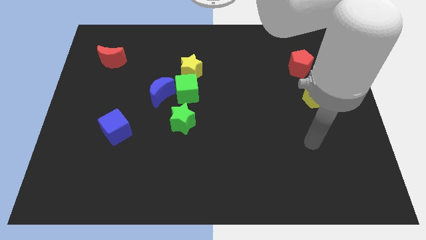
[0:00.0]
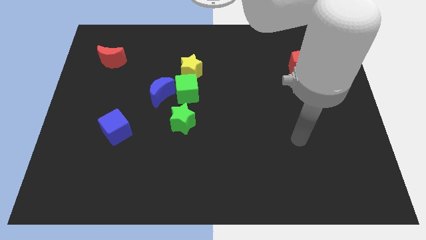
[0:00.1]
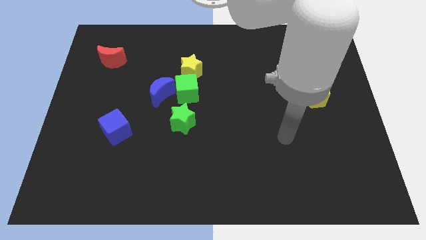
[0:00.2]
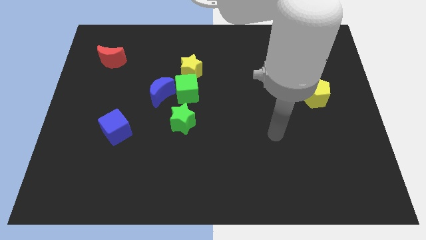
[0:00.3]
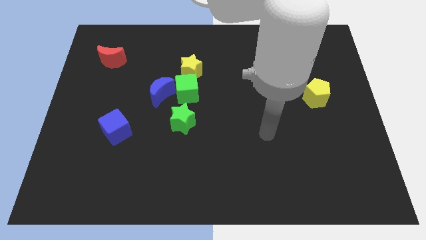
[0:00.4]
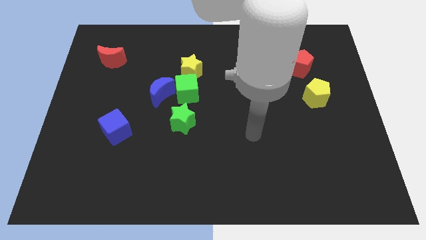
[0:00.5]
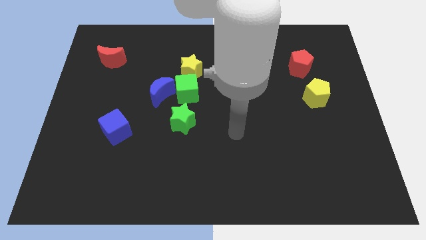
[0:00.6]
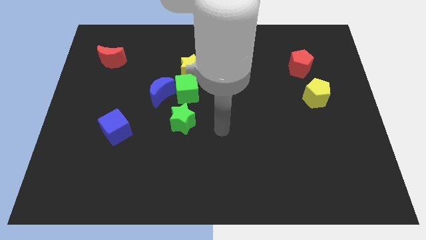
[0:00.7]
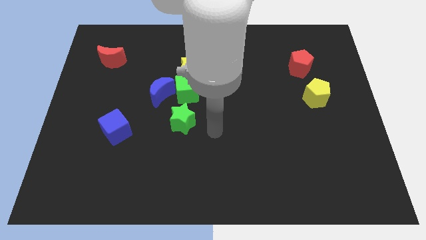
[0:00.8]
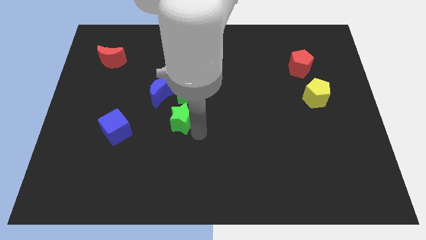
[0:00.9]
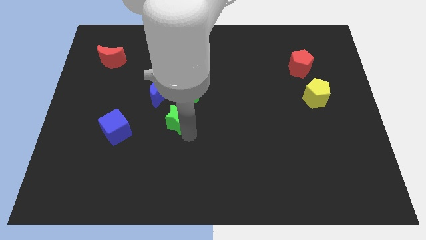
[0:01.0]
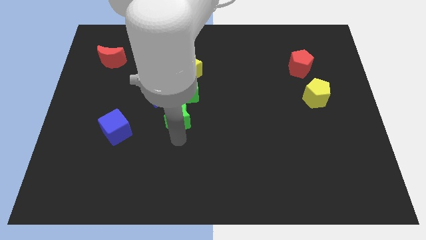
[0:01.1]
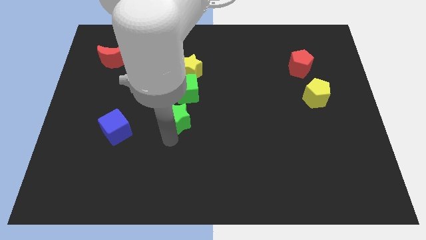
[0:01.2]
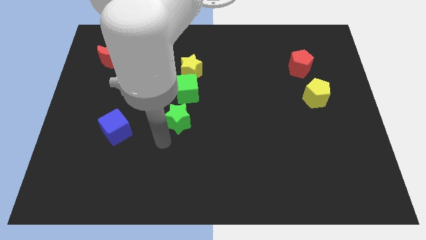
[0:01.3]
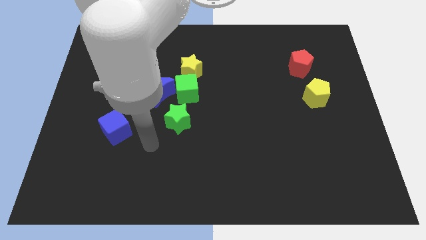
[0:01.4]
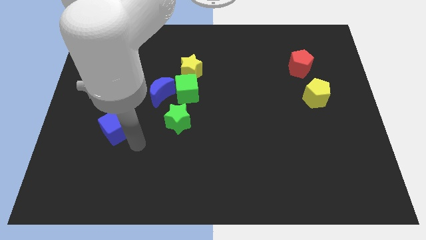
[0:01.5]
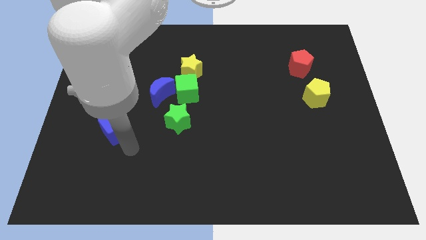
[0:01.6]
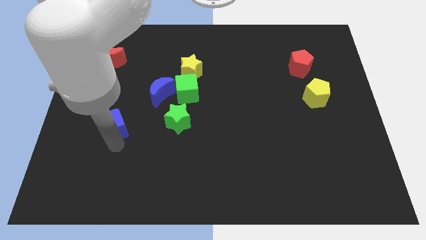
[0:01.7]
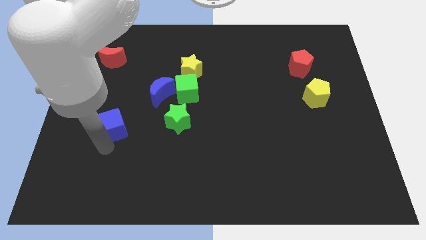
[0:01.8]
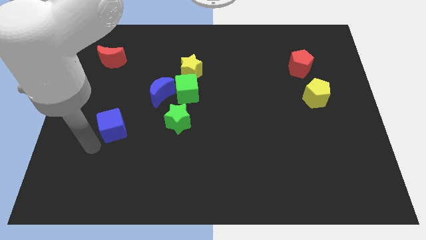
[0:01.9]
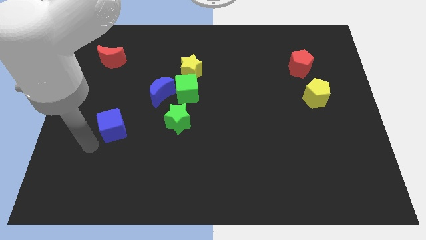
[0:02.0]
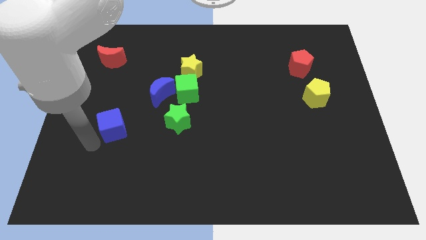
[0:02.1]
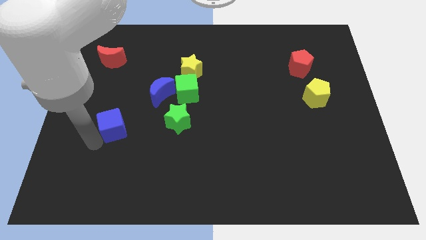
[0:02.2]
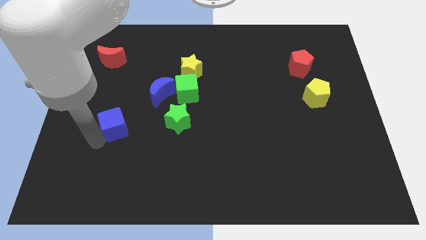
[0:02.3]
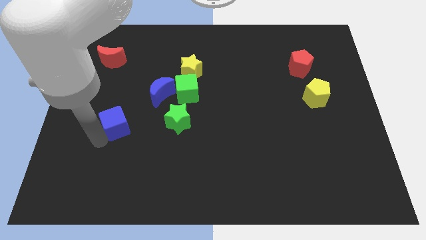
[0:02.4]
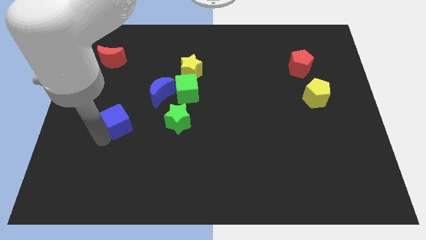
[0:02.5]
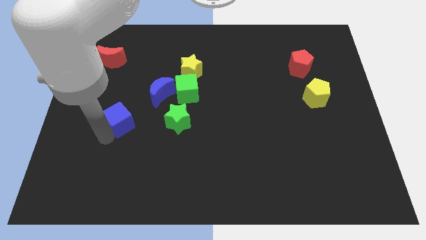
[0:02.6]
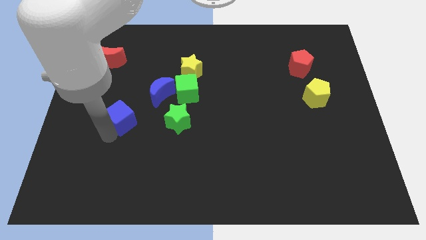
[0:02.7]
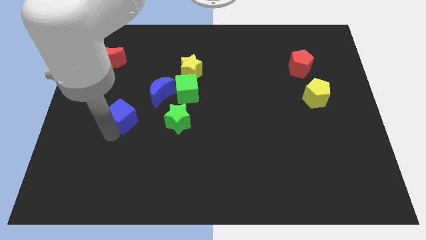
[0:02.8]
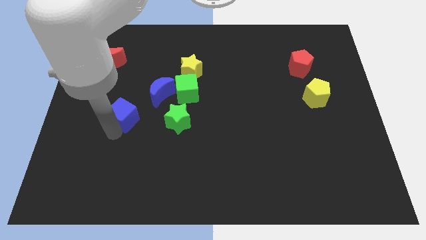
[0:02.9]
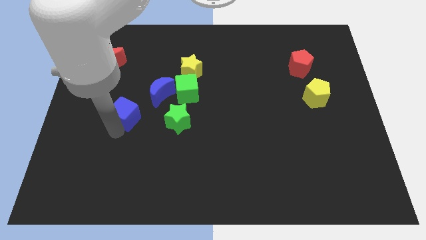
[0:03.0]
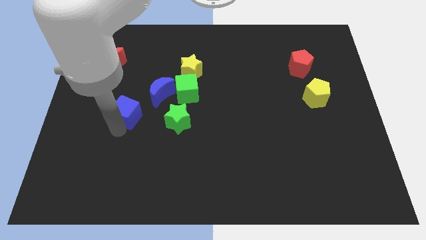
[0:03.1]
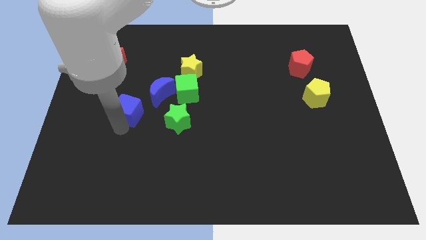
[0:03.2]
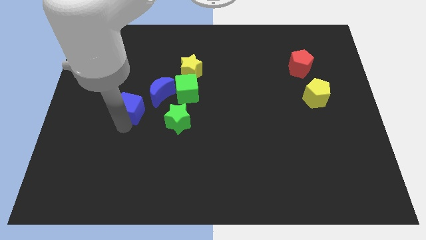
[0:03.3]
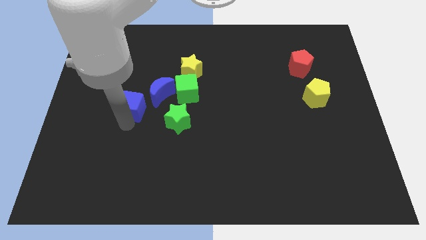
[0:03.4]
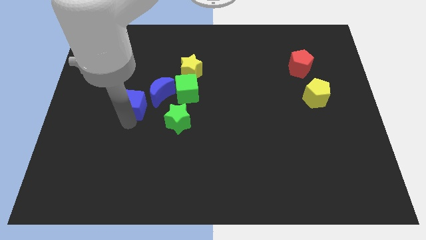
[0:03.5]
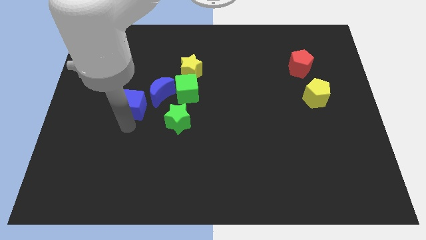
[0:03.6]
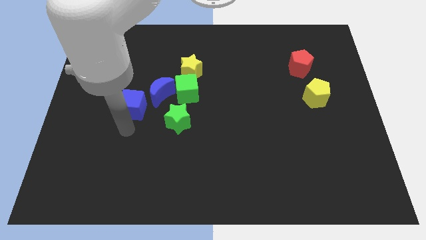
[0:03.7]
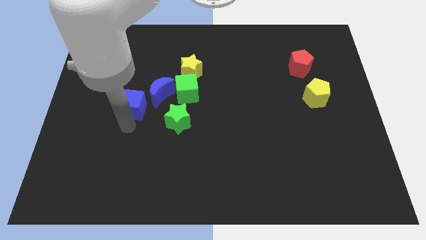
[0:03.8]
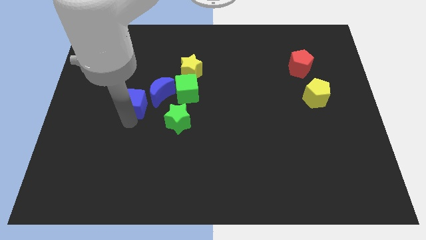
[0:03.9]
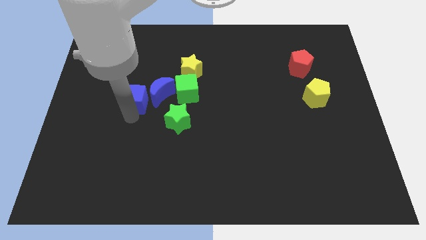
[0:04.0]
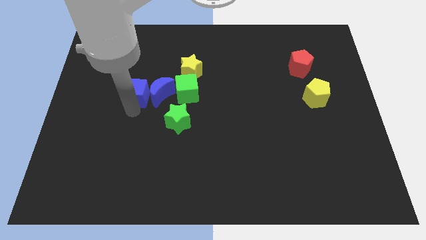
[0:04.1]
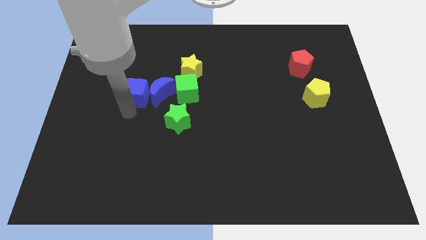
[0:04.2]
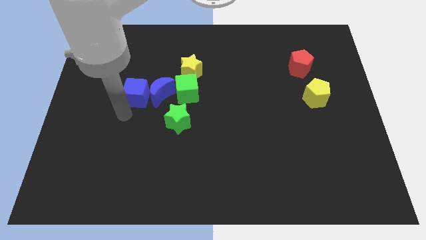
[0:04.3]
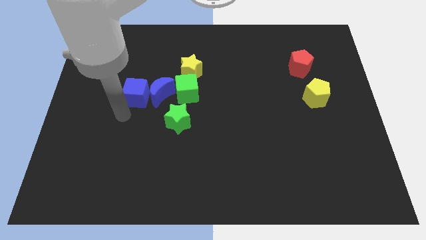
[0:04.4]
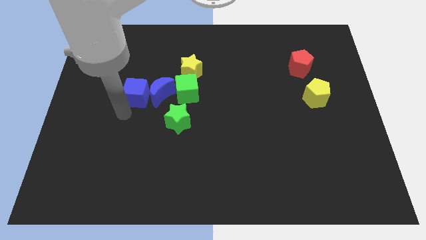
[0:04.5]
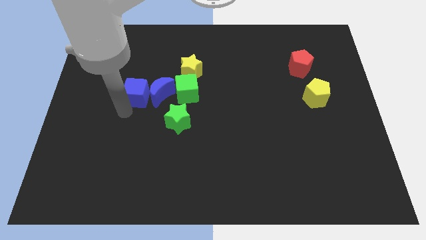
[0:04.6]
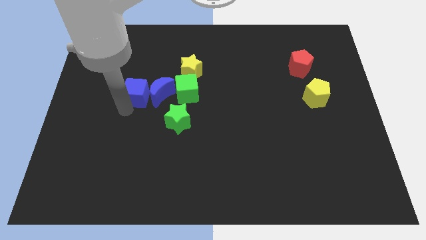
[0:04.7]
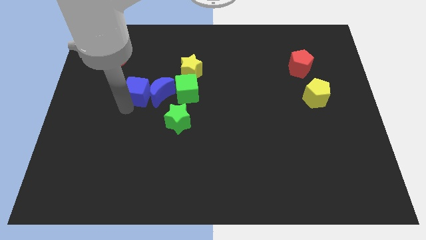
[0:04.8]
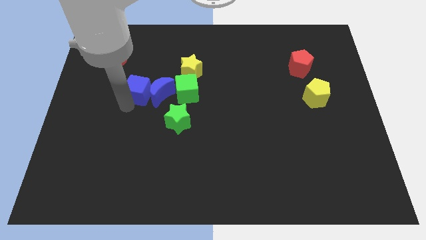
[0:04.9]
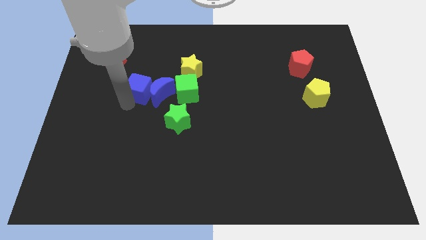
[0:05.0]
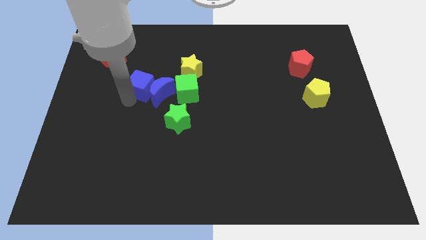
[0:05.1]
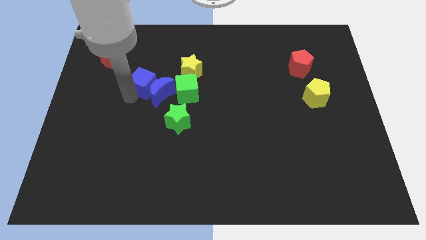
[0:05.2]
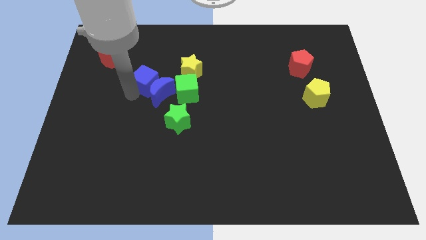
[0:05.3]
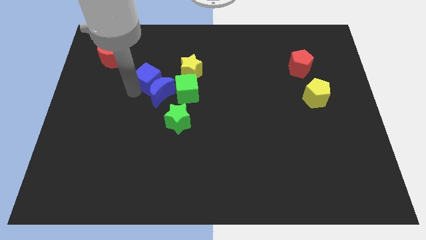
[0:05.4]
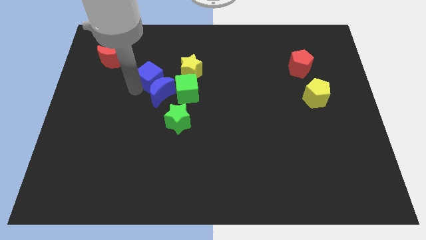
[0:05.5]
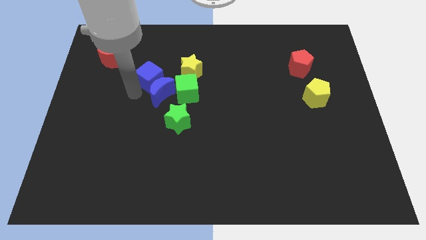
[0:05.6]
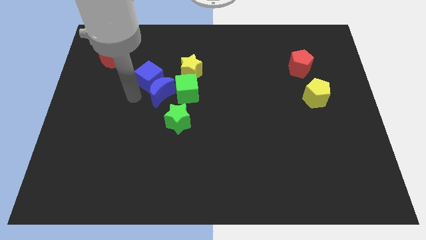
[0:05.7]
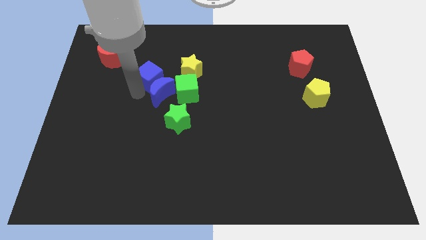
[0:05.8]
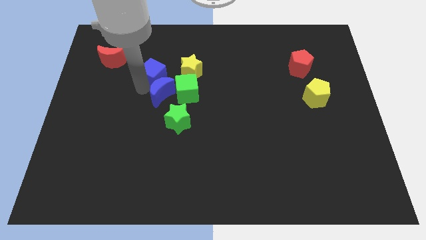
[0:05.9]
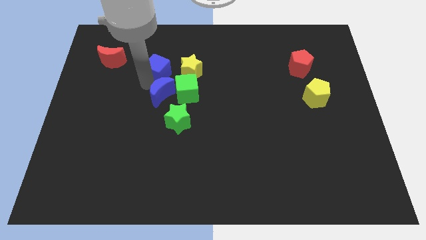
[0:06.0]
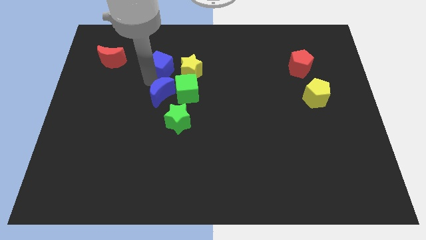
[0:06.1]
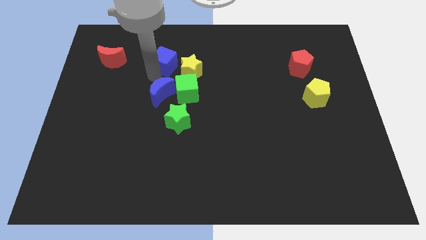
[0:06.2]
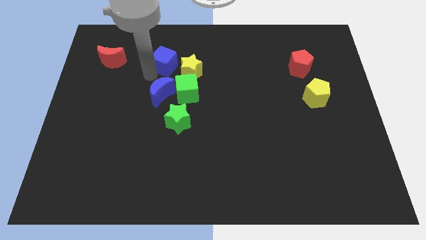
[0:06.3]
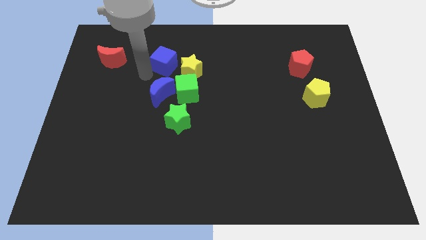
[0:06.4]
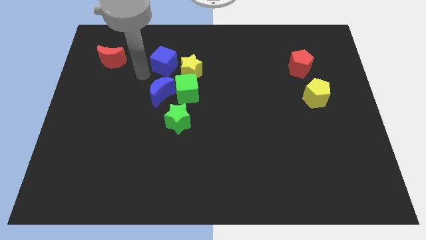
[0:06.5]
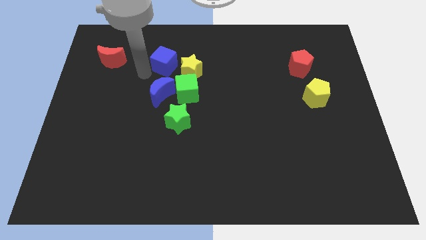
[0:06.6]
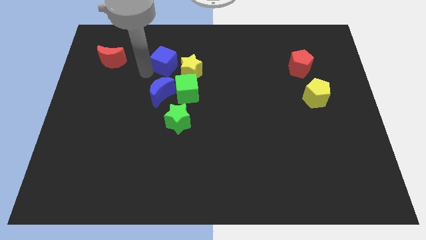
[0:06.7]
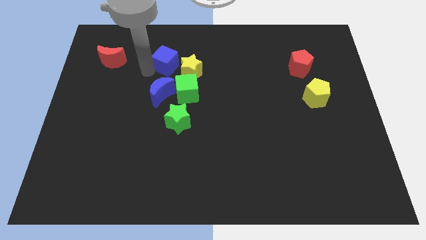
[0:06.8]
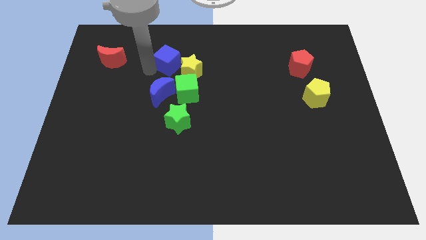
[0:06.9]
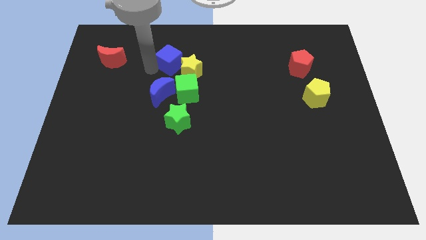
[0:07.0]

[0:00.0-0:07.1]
move the blue cube up and right

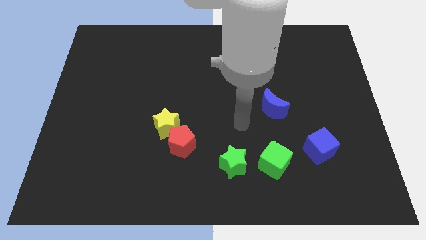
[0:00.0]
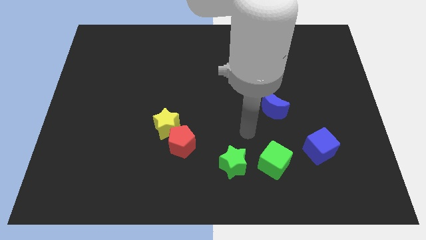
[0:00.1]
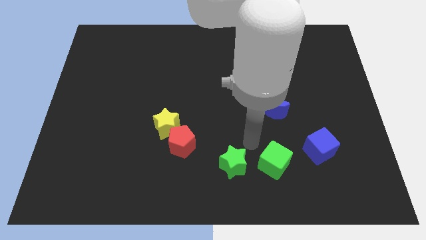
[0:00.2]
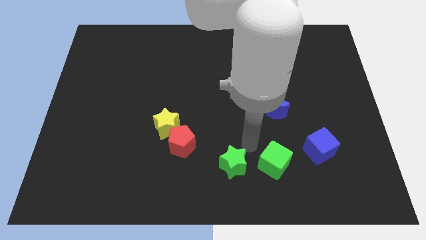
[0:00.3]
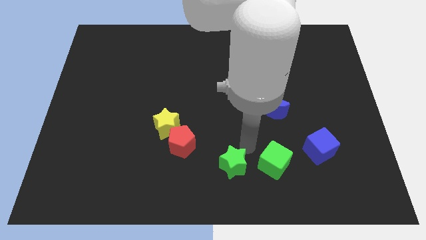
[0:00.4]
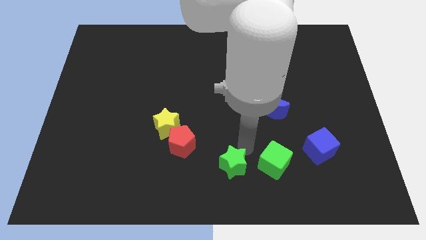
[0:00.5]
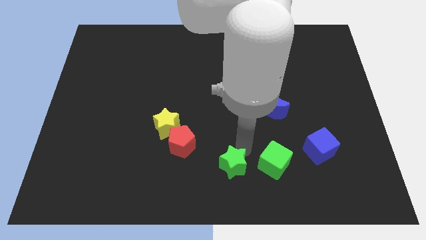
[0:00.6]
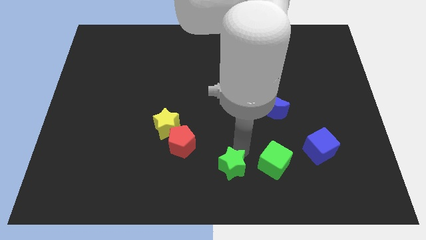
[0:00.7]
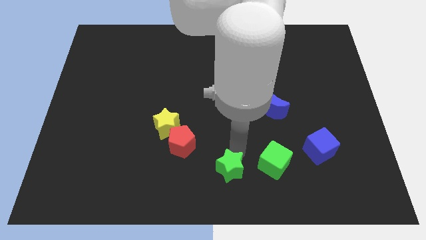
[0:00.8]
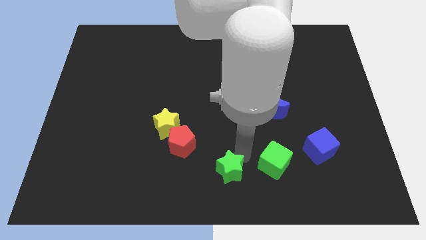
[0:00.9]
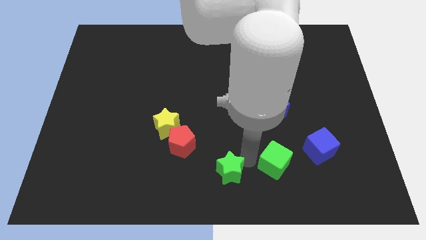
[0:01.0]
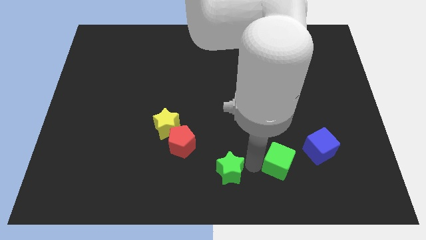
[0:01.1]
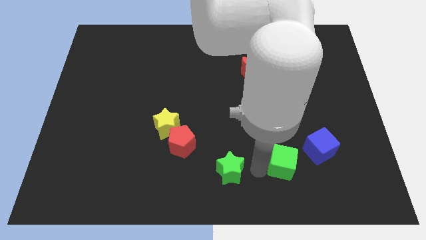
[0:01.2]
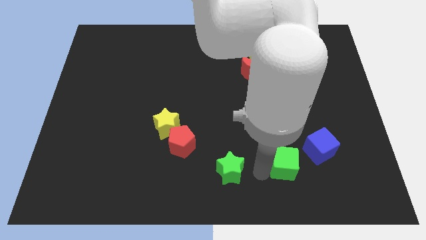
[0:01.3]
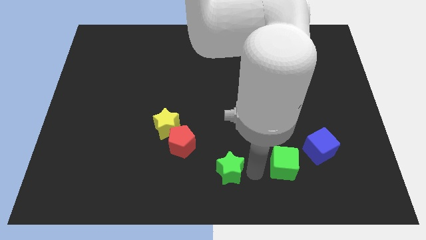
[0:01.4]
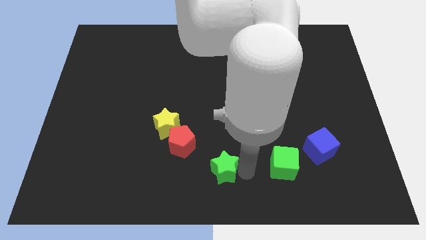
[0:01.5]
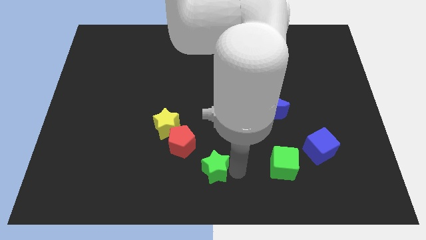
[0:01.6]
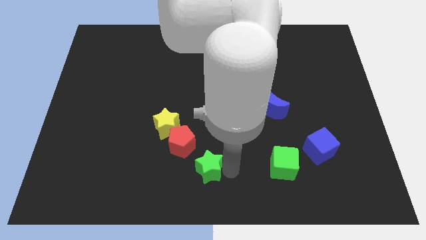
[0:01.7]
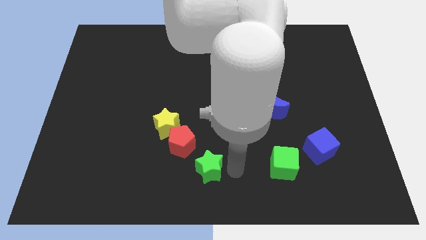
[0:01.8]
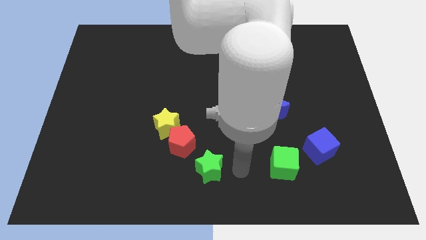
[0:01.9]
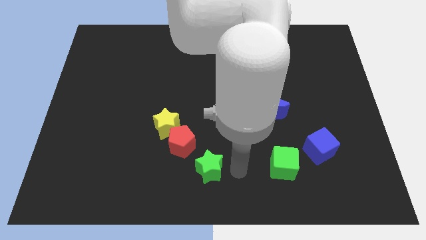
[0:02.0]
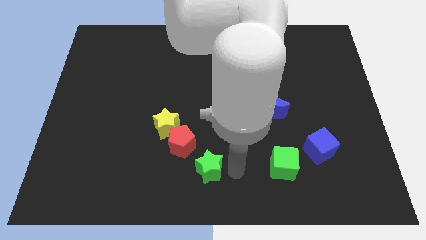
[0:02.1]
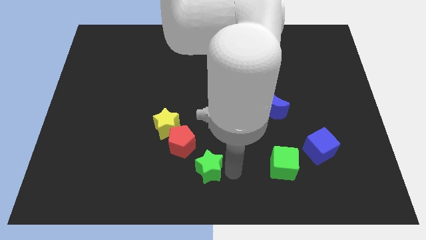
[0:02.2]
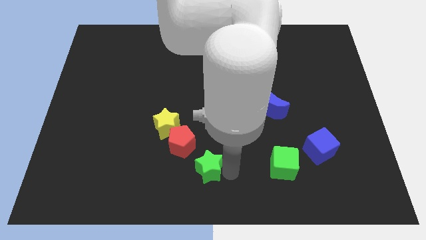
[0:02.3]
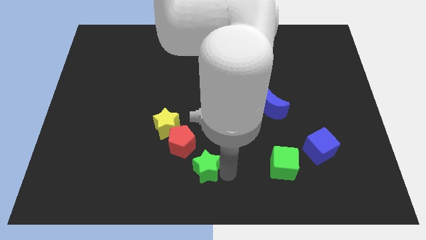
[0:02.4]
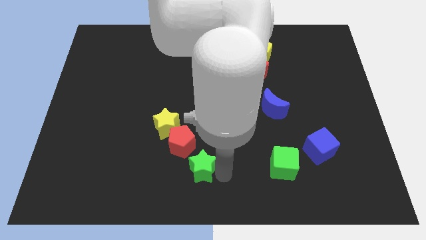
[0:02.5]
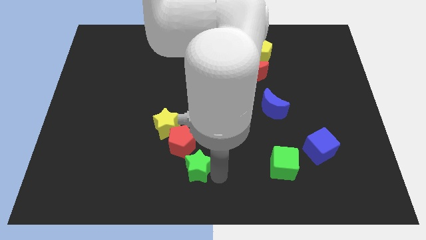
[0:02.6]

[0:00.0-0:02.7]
push the green star a little to the left
